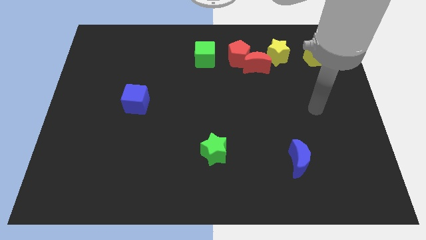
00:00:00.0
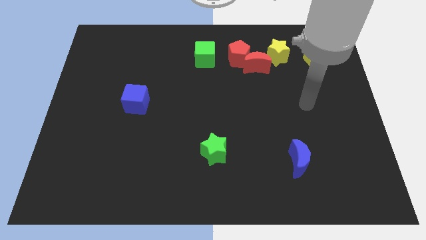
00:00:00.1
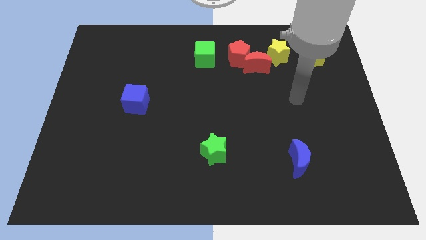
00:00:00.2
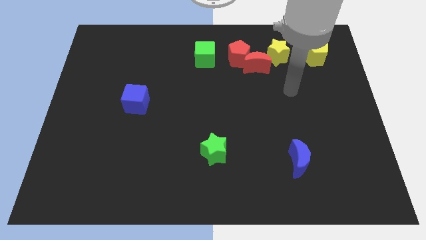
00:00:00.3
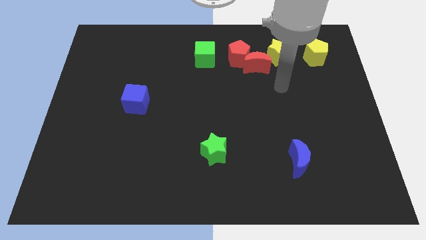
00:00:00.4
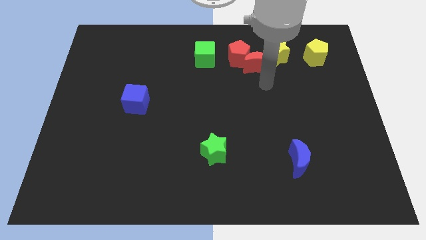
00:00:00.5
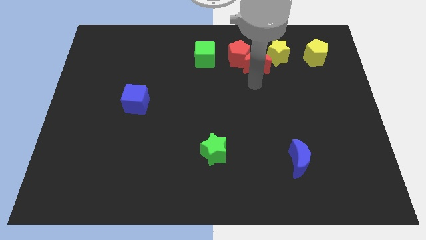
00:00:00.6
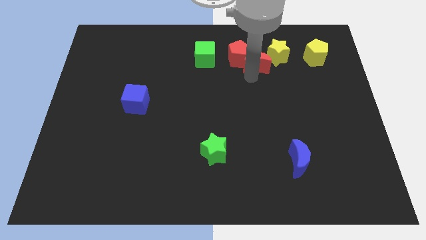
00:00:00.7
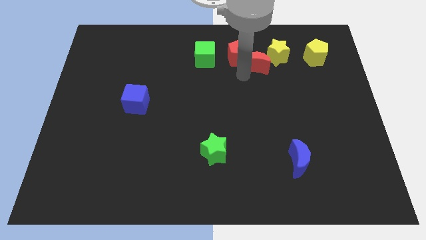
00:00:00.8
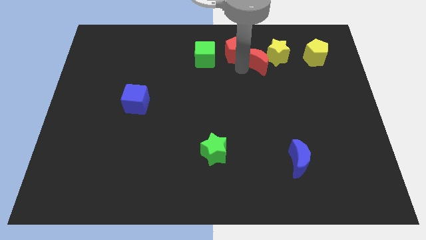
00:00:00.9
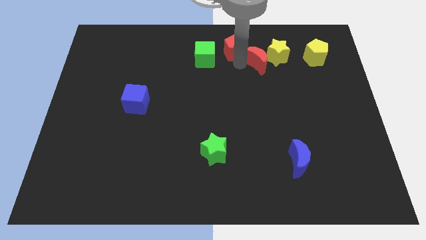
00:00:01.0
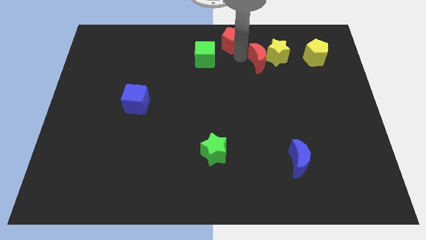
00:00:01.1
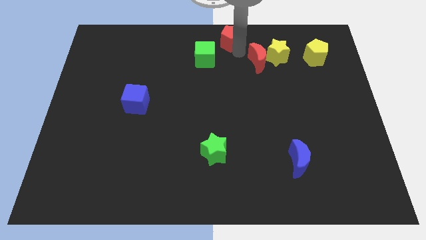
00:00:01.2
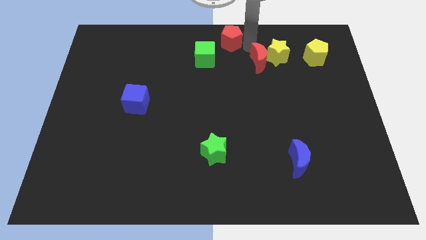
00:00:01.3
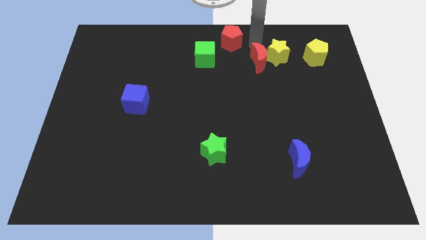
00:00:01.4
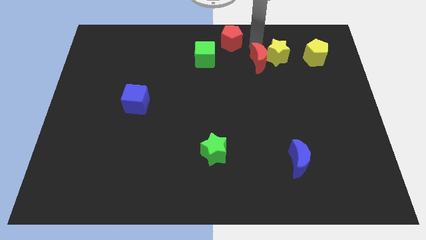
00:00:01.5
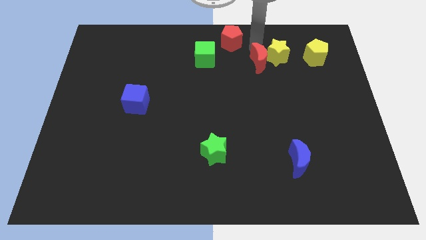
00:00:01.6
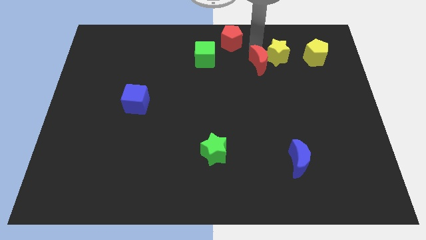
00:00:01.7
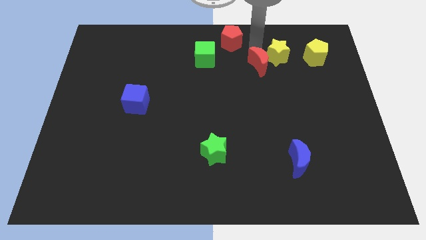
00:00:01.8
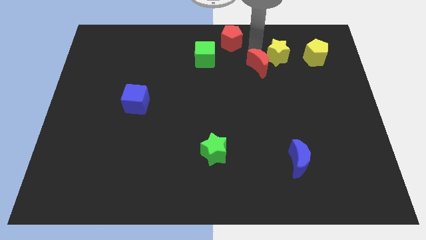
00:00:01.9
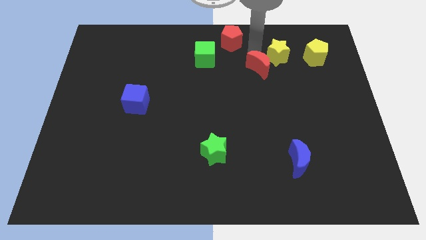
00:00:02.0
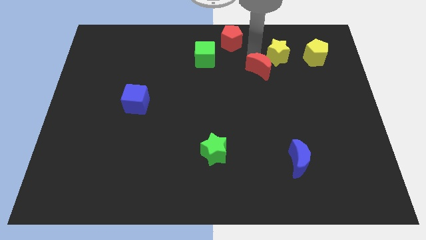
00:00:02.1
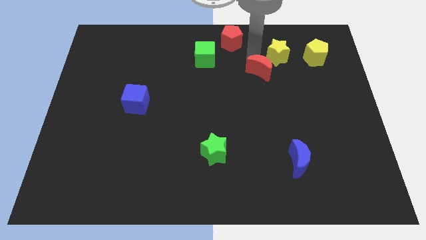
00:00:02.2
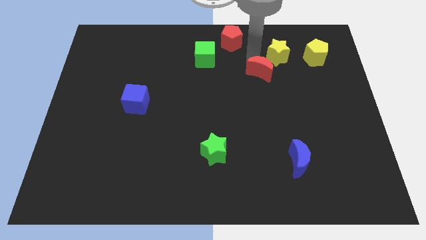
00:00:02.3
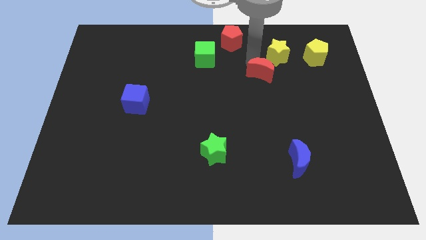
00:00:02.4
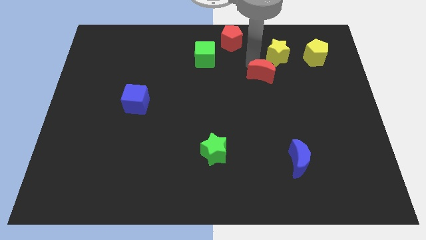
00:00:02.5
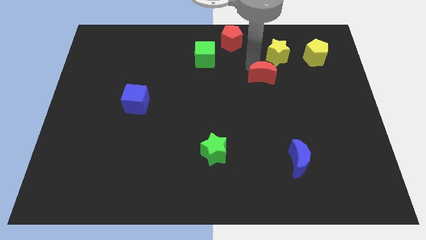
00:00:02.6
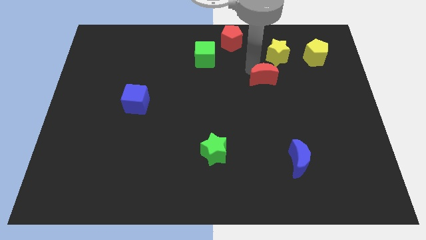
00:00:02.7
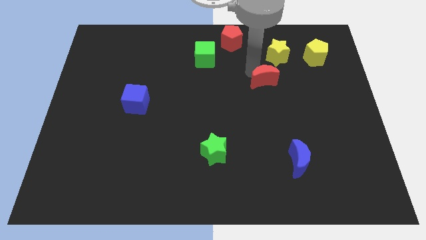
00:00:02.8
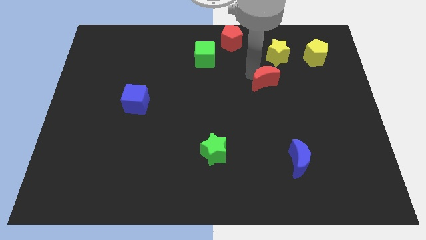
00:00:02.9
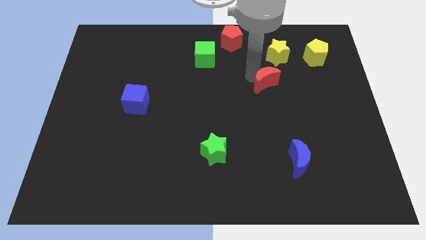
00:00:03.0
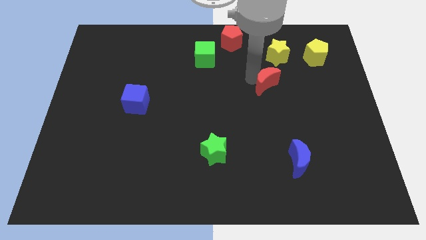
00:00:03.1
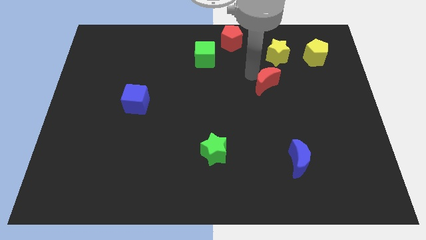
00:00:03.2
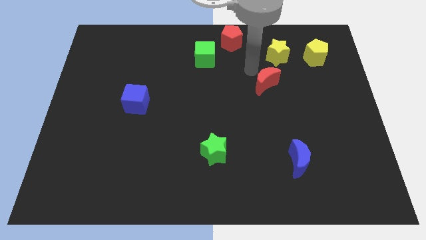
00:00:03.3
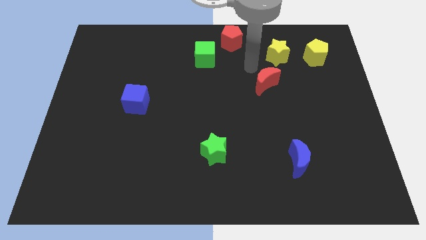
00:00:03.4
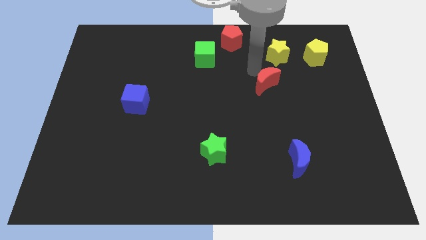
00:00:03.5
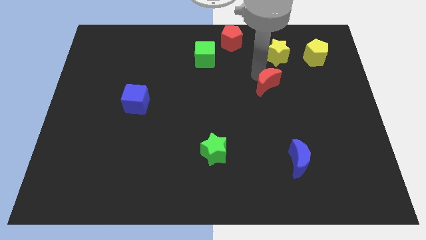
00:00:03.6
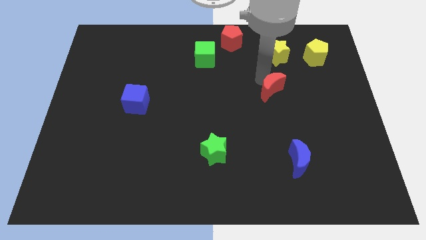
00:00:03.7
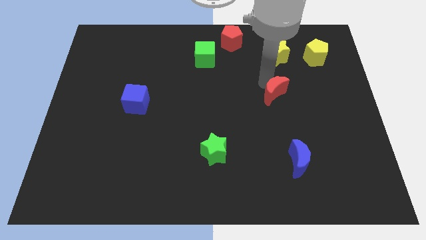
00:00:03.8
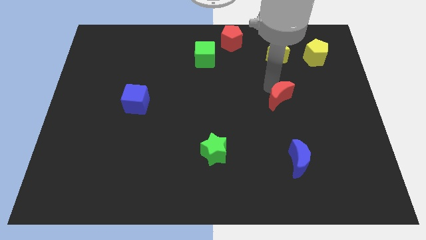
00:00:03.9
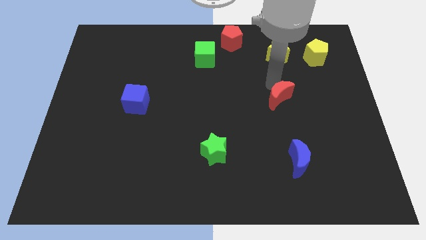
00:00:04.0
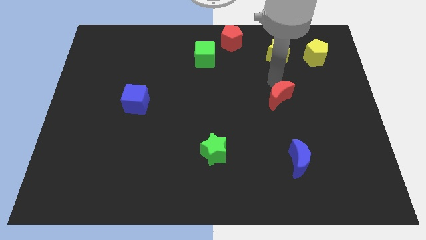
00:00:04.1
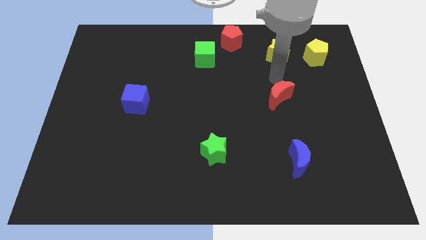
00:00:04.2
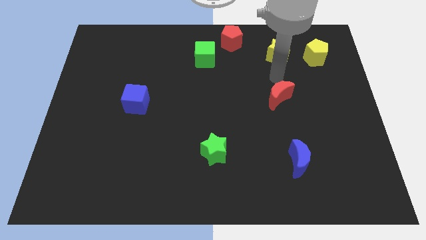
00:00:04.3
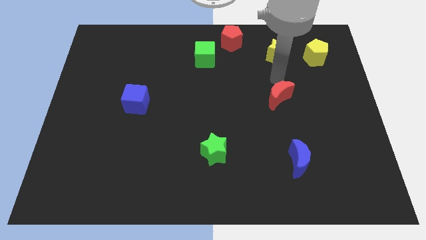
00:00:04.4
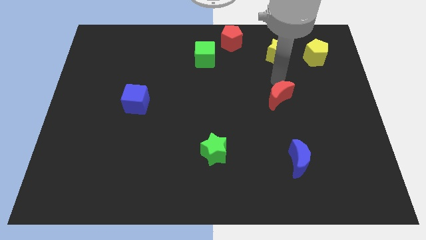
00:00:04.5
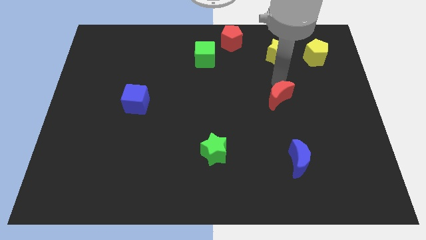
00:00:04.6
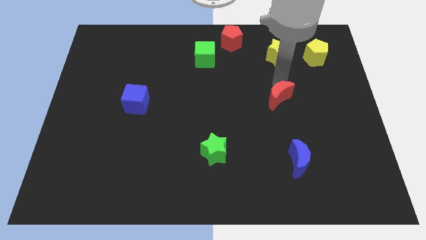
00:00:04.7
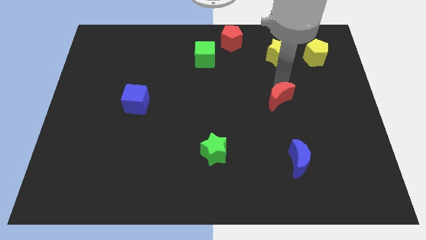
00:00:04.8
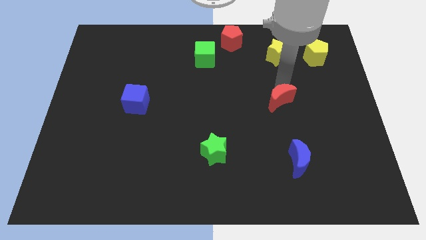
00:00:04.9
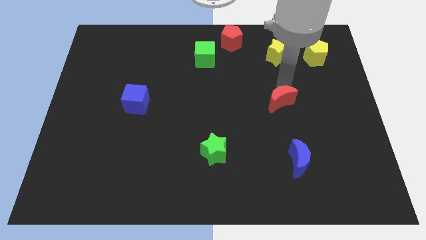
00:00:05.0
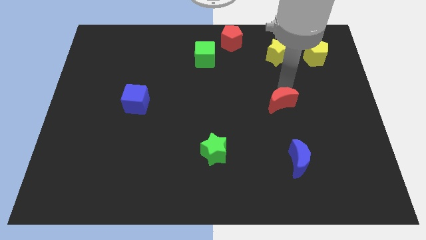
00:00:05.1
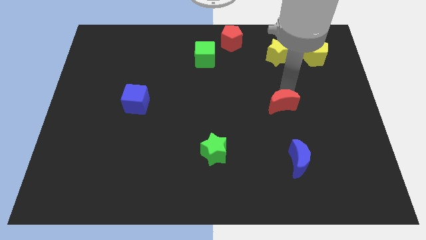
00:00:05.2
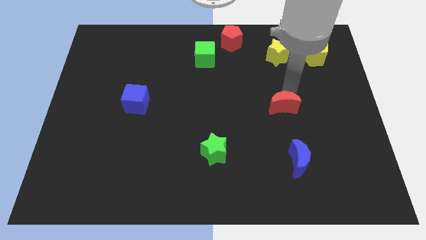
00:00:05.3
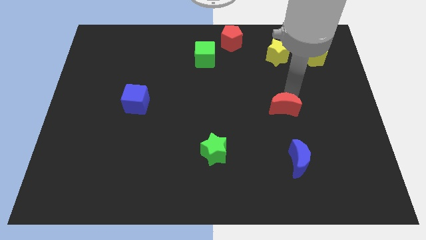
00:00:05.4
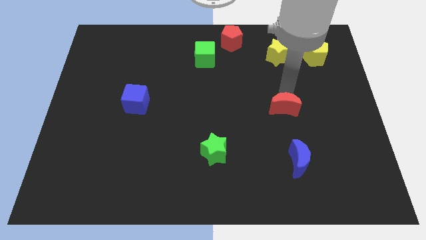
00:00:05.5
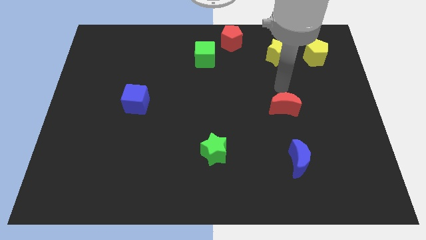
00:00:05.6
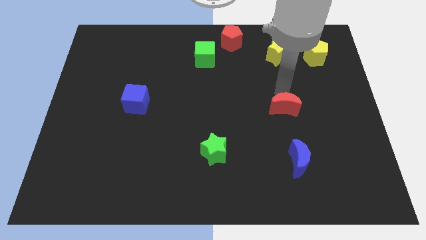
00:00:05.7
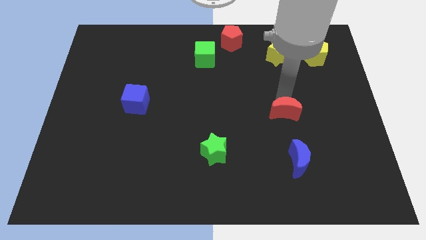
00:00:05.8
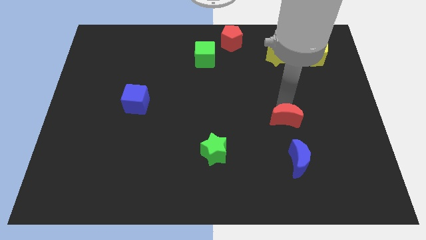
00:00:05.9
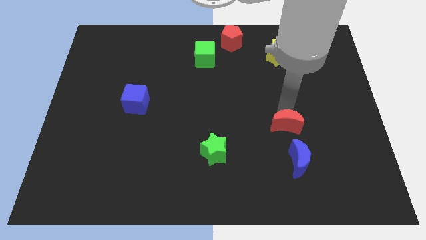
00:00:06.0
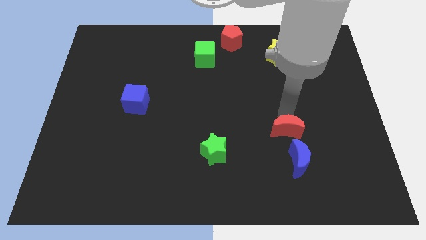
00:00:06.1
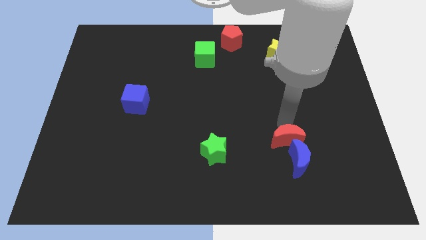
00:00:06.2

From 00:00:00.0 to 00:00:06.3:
push the red moon to the blue moon

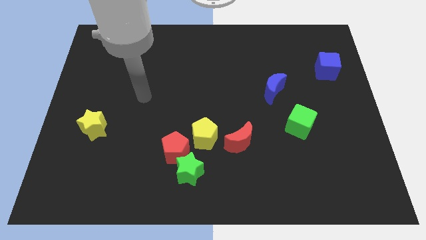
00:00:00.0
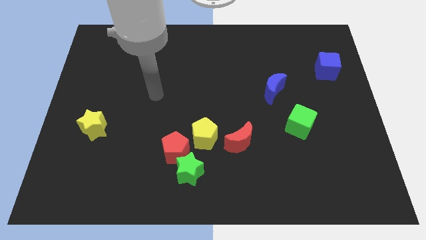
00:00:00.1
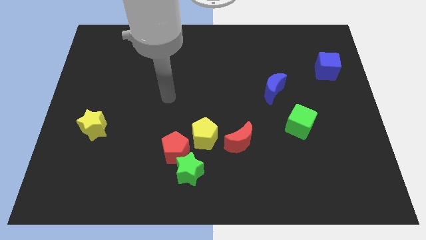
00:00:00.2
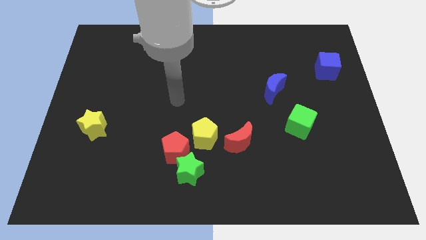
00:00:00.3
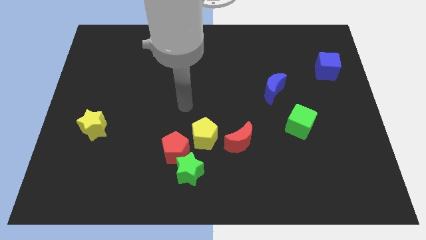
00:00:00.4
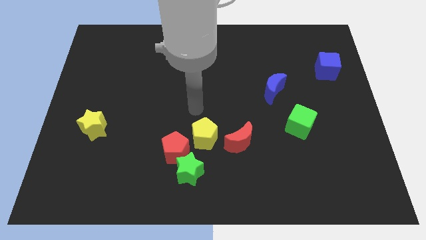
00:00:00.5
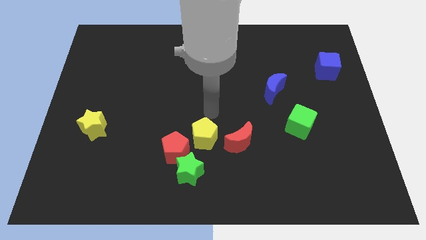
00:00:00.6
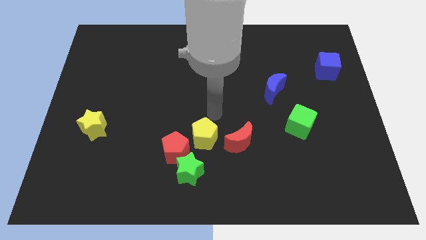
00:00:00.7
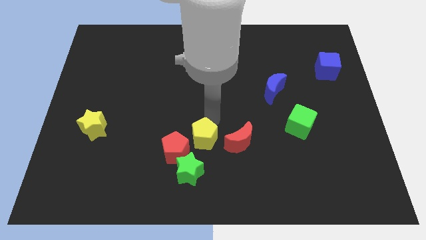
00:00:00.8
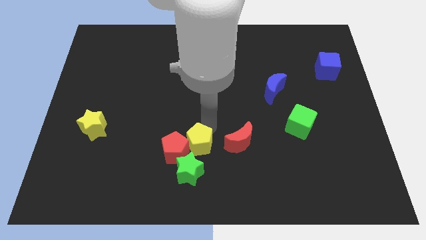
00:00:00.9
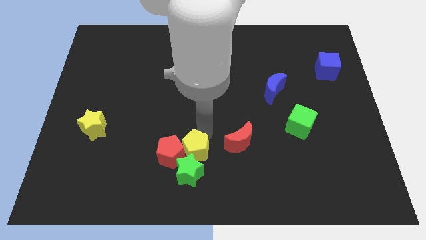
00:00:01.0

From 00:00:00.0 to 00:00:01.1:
put the yellow pentagon next to the green star
